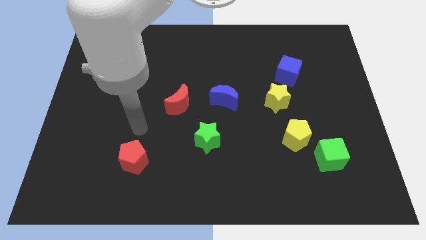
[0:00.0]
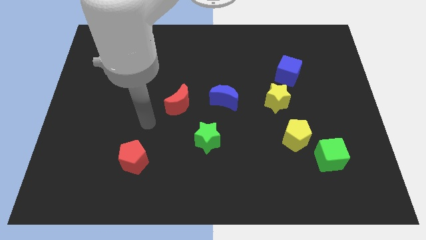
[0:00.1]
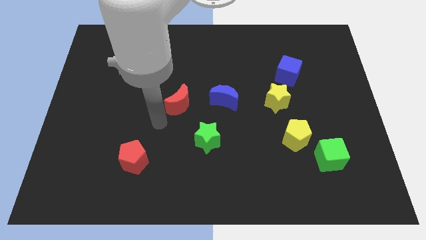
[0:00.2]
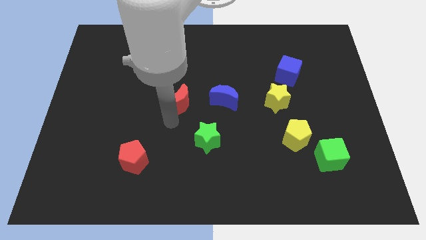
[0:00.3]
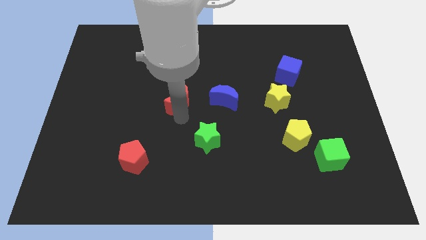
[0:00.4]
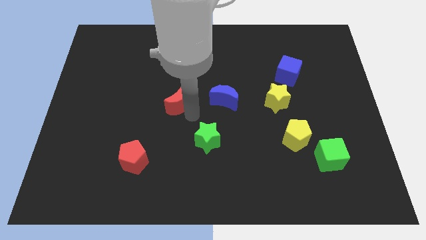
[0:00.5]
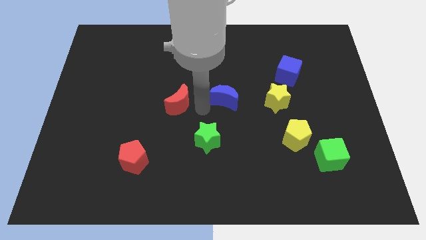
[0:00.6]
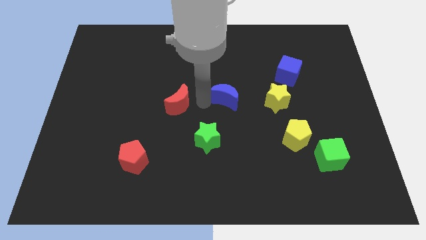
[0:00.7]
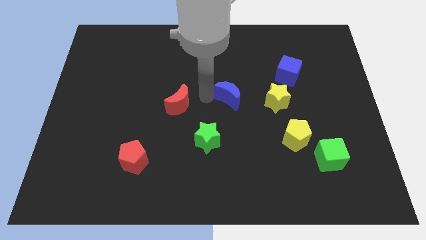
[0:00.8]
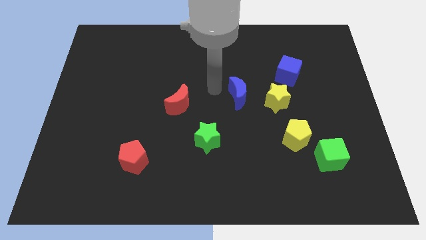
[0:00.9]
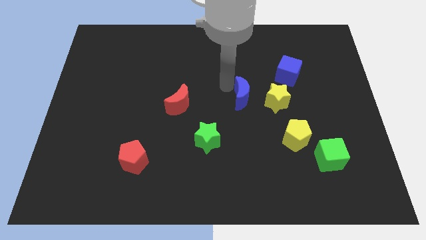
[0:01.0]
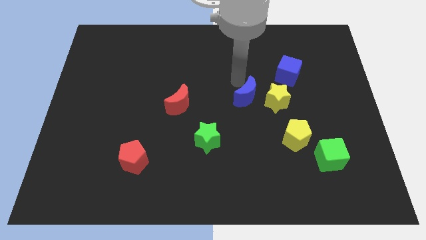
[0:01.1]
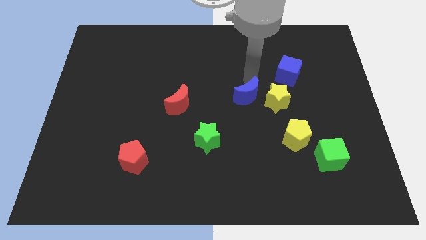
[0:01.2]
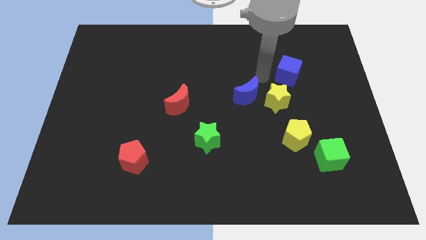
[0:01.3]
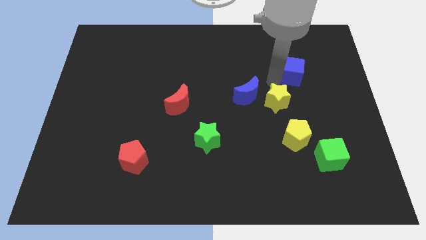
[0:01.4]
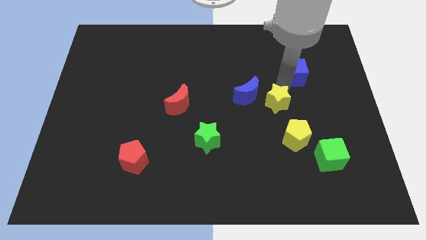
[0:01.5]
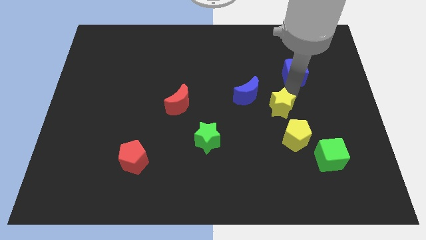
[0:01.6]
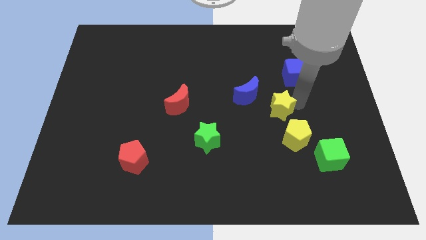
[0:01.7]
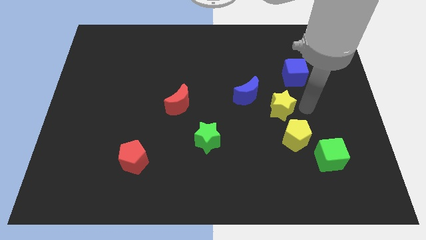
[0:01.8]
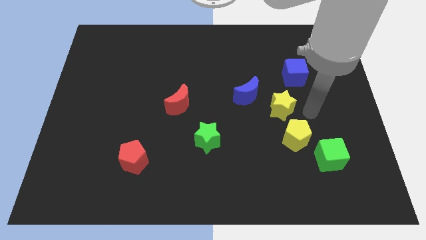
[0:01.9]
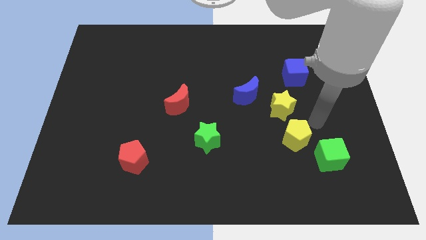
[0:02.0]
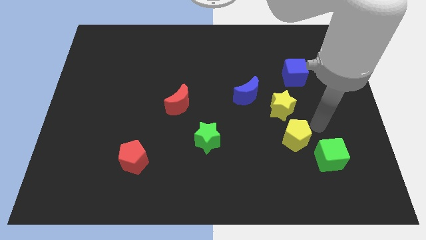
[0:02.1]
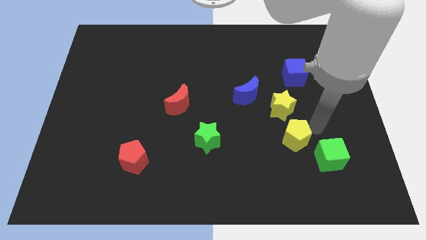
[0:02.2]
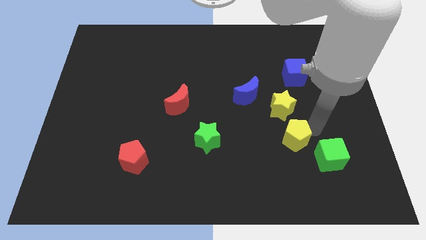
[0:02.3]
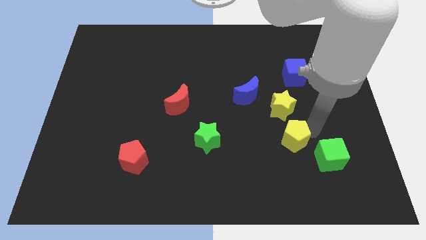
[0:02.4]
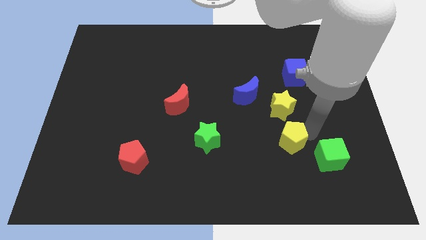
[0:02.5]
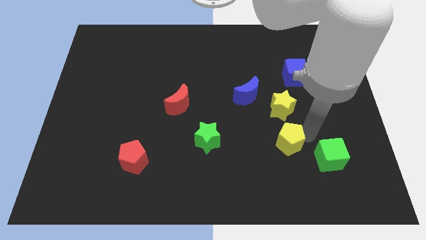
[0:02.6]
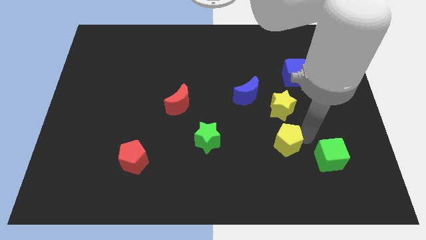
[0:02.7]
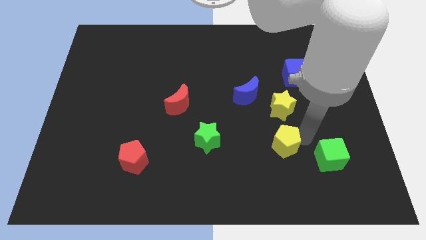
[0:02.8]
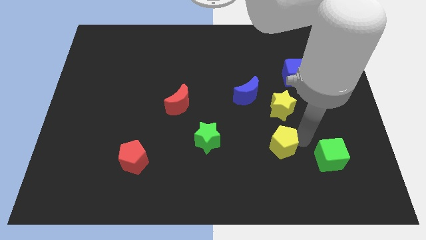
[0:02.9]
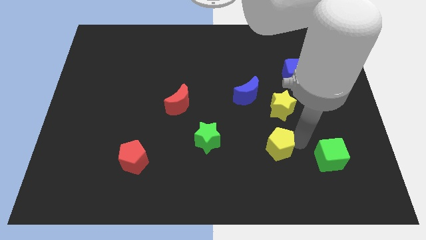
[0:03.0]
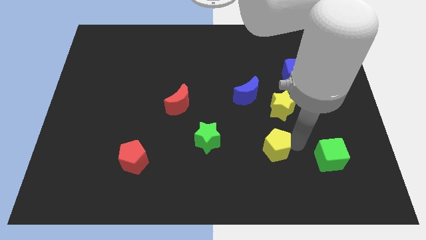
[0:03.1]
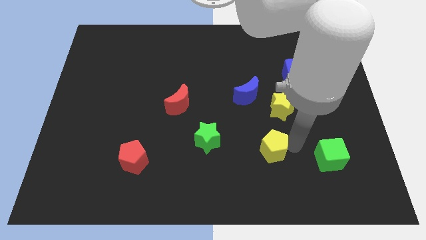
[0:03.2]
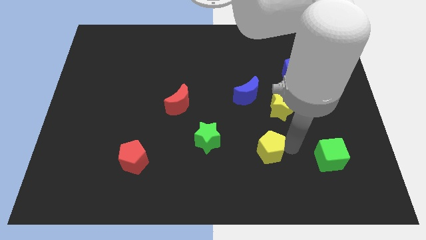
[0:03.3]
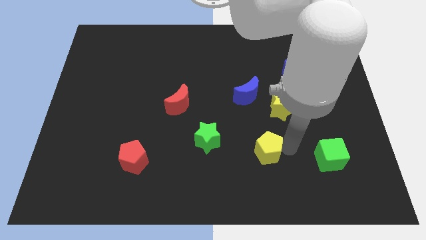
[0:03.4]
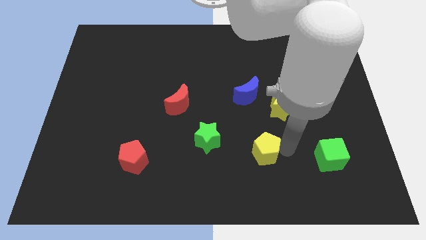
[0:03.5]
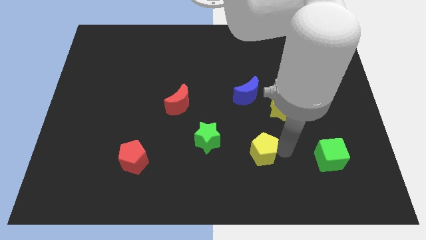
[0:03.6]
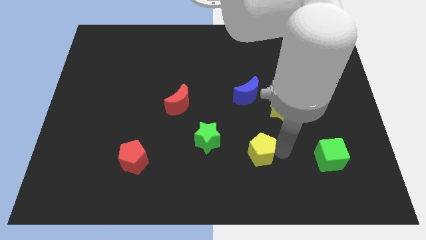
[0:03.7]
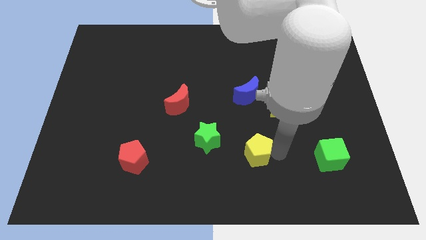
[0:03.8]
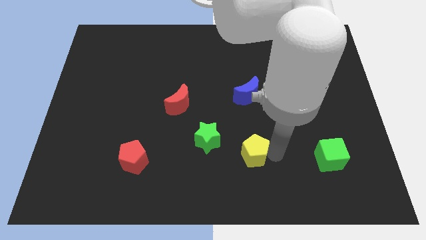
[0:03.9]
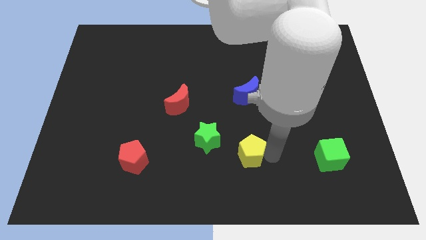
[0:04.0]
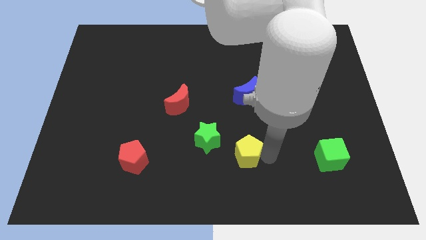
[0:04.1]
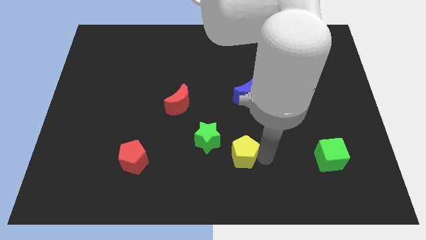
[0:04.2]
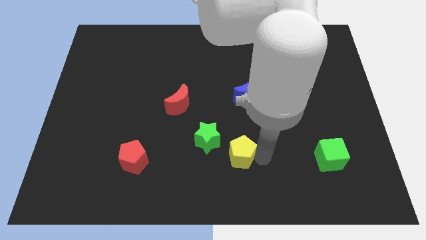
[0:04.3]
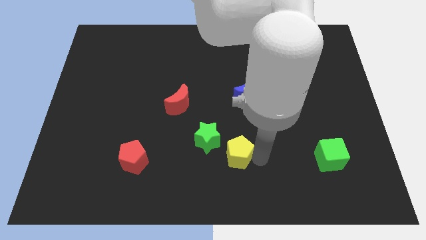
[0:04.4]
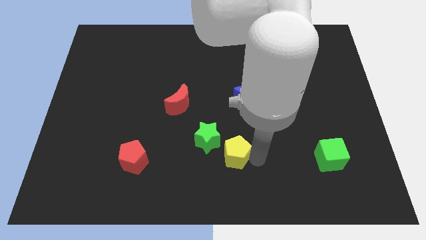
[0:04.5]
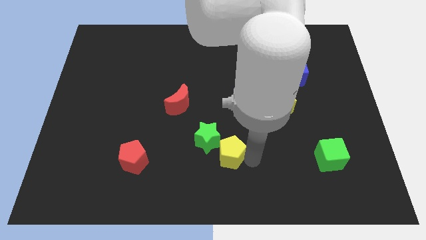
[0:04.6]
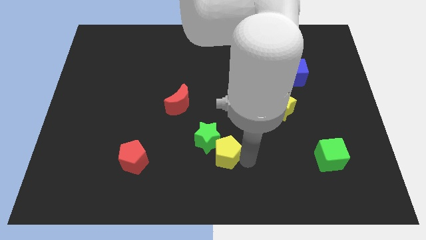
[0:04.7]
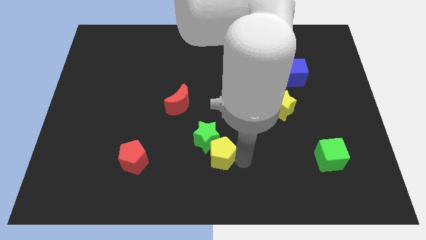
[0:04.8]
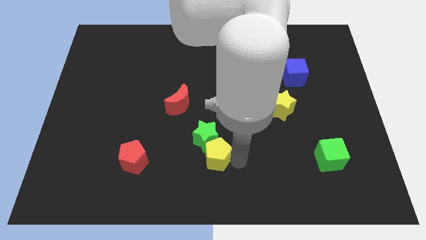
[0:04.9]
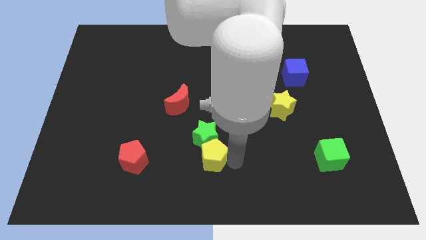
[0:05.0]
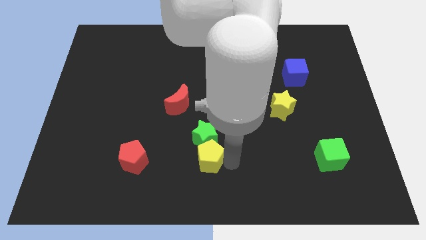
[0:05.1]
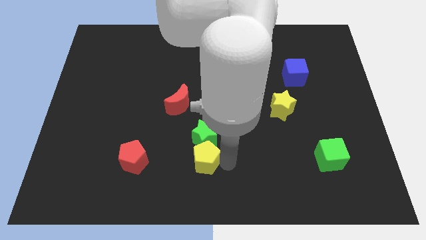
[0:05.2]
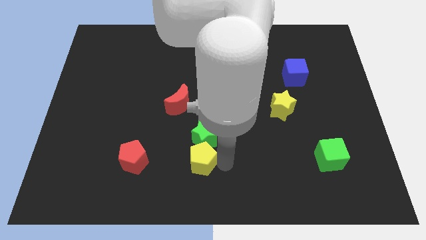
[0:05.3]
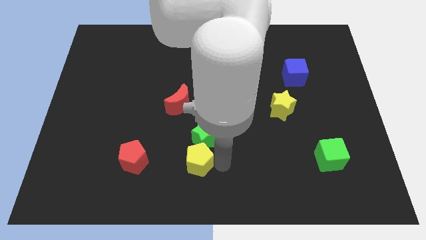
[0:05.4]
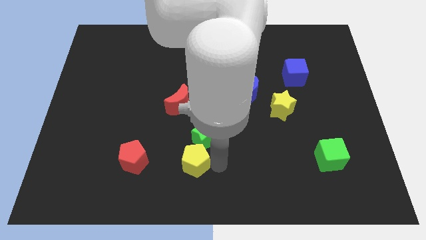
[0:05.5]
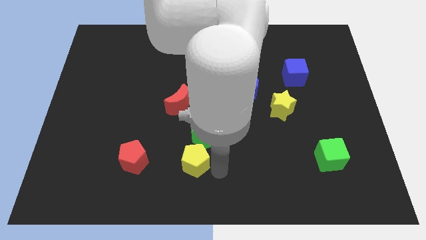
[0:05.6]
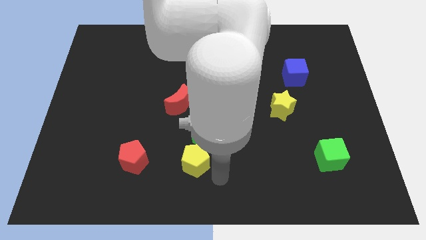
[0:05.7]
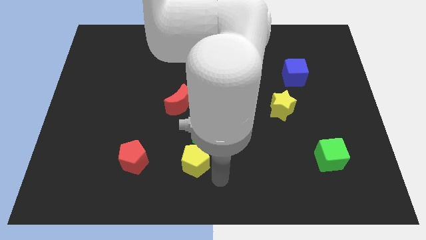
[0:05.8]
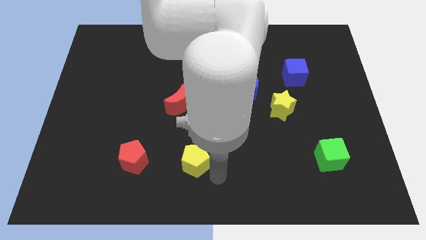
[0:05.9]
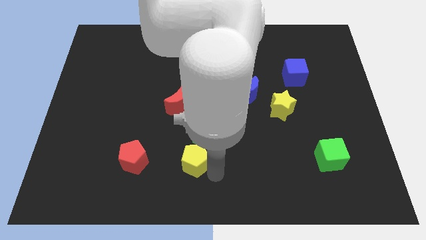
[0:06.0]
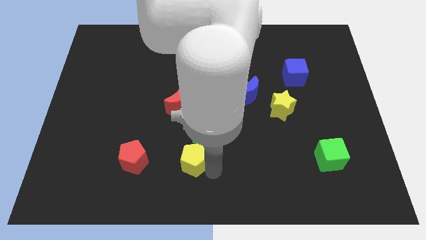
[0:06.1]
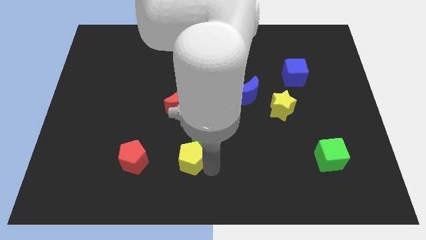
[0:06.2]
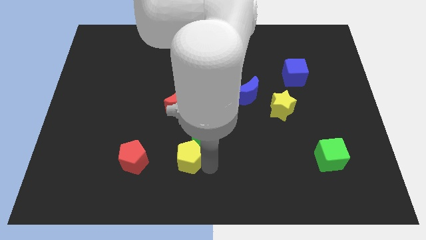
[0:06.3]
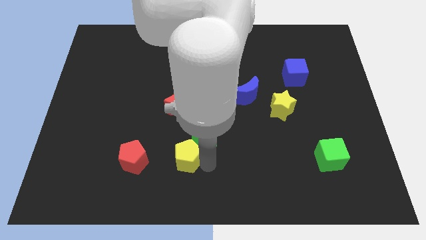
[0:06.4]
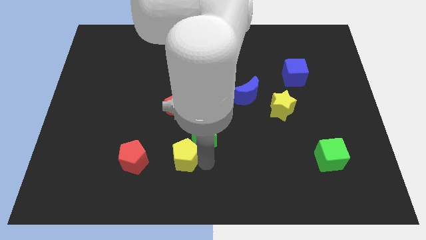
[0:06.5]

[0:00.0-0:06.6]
put the yellow pentagon left of the green star

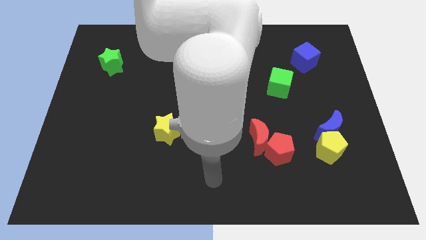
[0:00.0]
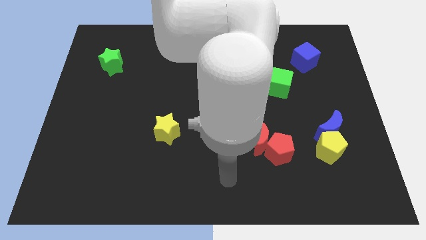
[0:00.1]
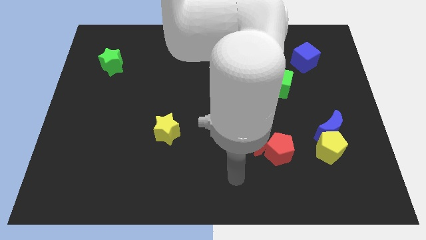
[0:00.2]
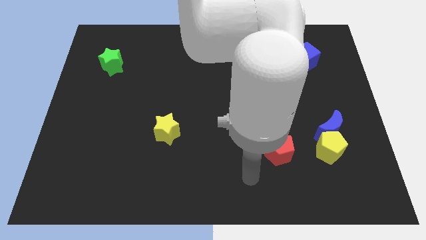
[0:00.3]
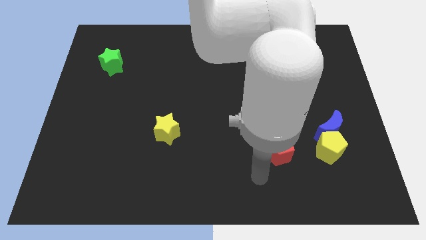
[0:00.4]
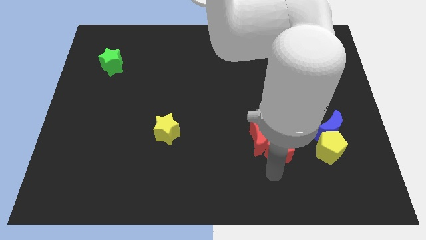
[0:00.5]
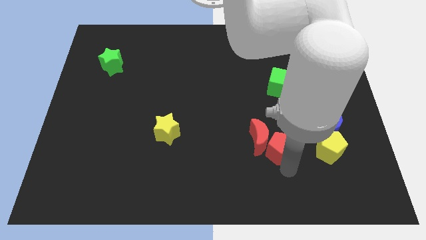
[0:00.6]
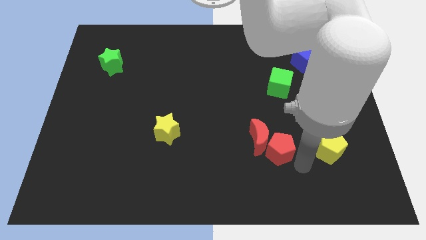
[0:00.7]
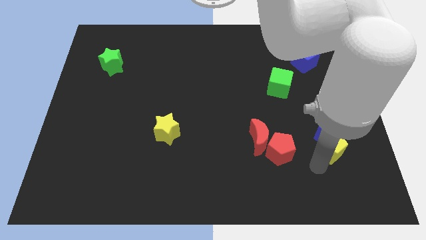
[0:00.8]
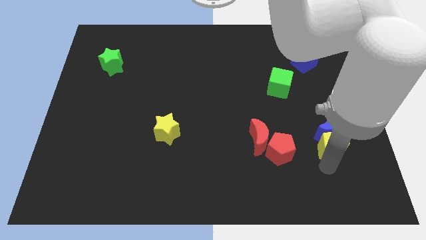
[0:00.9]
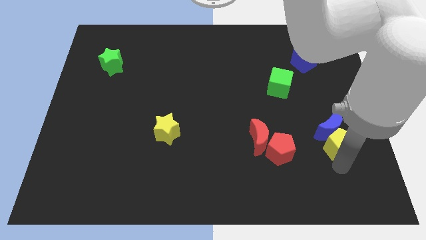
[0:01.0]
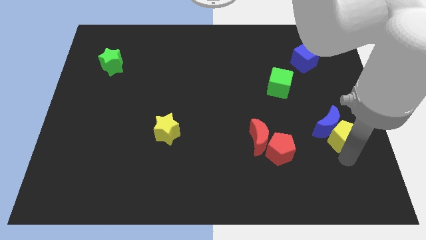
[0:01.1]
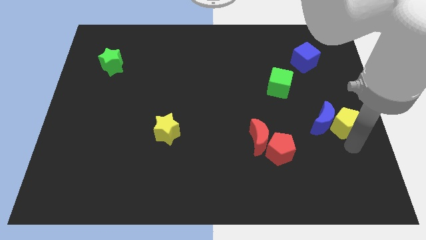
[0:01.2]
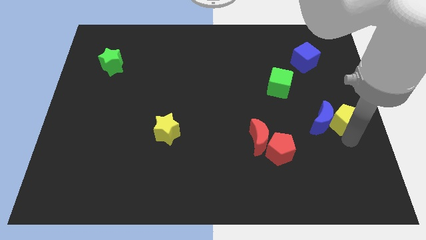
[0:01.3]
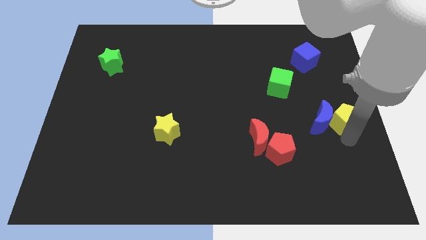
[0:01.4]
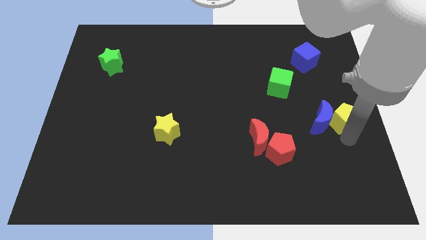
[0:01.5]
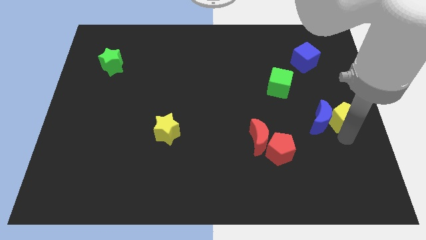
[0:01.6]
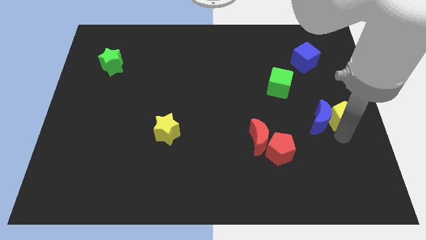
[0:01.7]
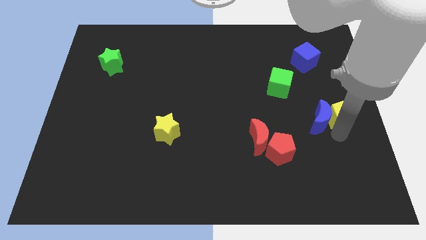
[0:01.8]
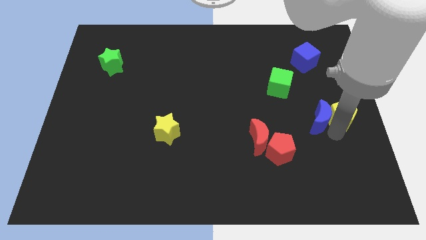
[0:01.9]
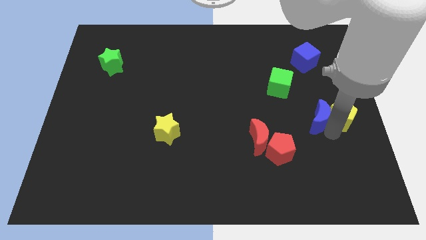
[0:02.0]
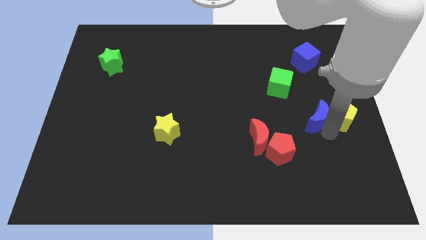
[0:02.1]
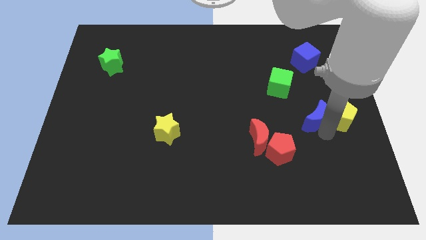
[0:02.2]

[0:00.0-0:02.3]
move the blue moon diagonally down and to the right of the green cube
